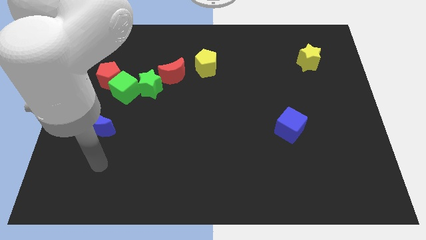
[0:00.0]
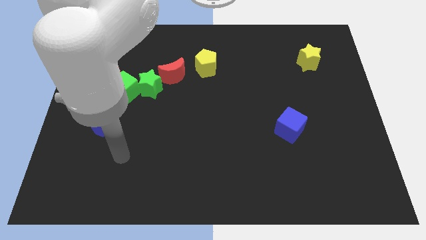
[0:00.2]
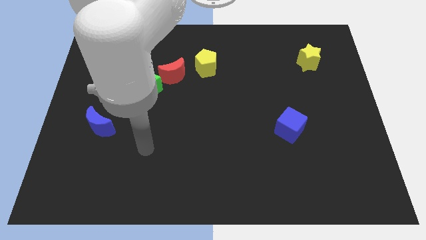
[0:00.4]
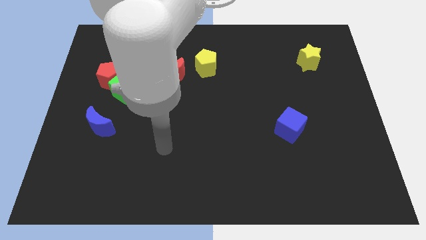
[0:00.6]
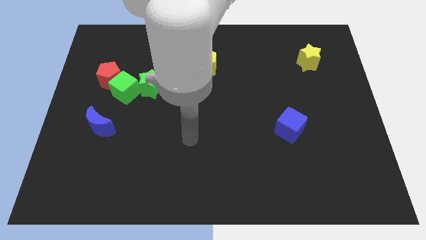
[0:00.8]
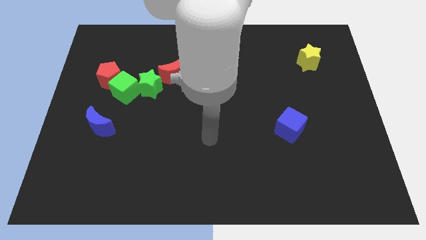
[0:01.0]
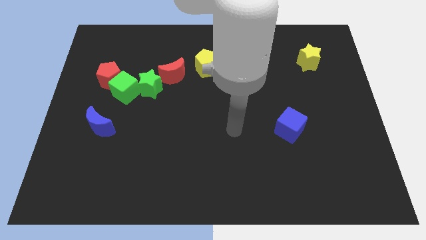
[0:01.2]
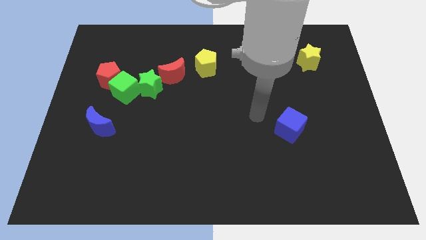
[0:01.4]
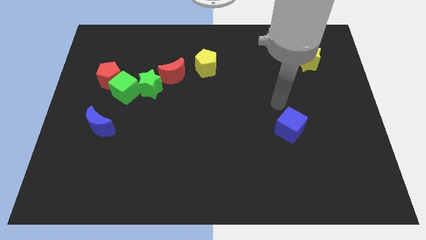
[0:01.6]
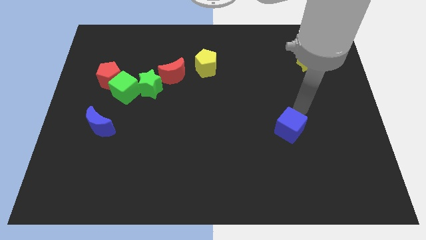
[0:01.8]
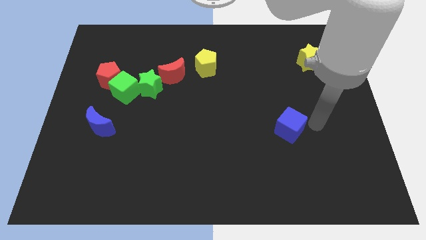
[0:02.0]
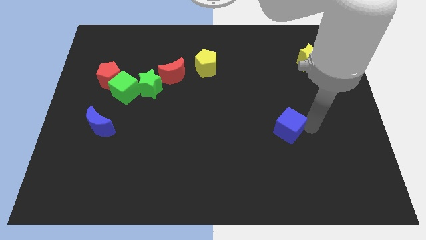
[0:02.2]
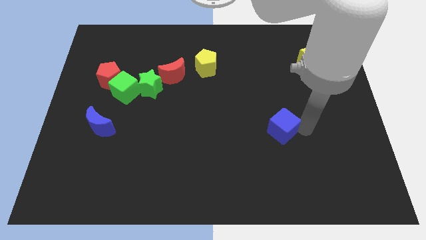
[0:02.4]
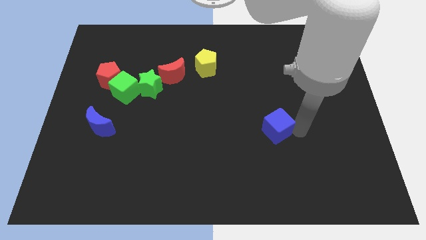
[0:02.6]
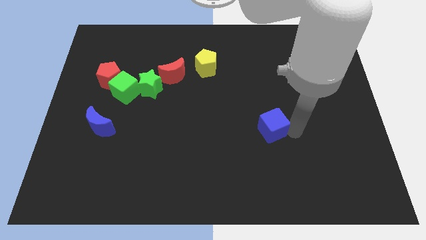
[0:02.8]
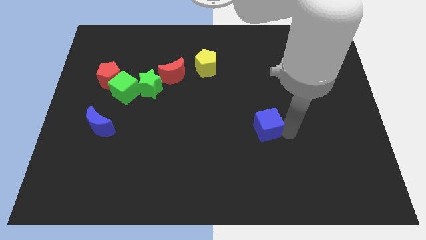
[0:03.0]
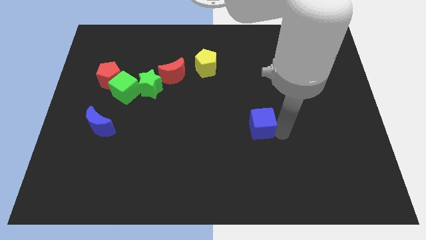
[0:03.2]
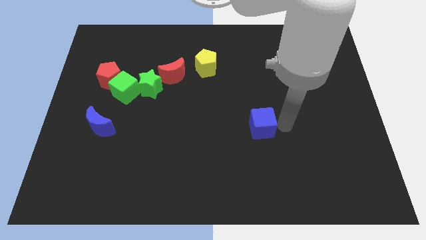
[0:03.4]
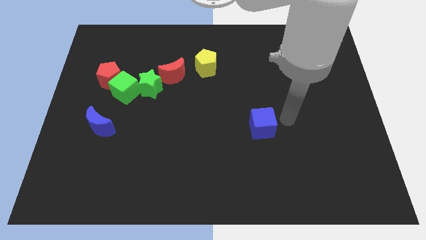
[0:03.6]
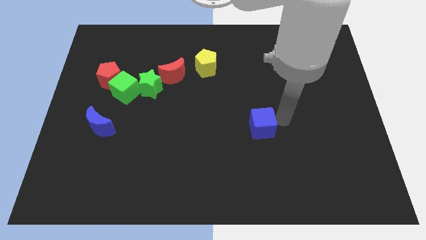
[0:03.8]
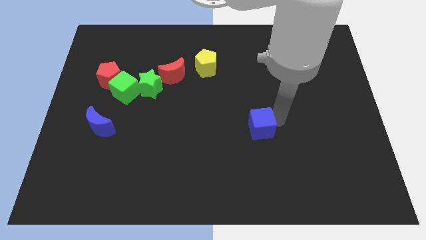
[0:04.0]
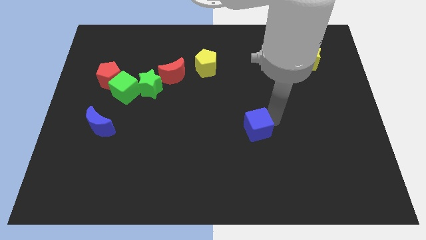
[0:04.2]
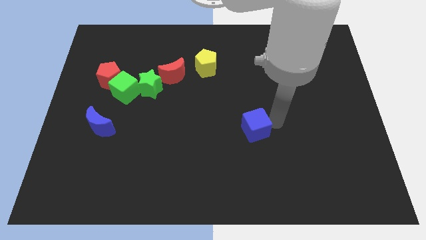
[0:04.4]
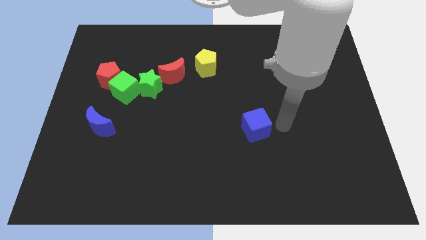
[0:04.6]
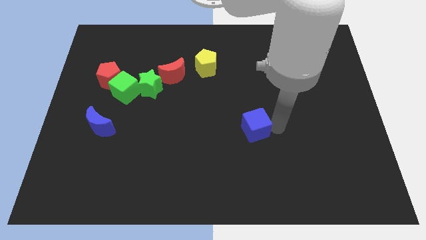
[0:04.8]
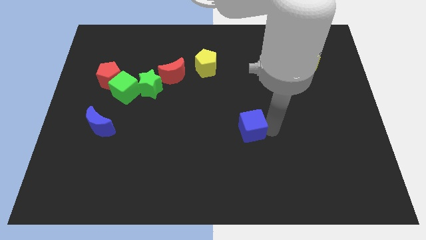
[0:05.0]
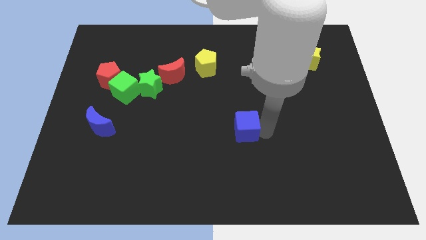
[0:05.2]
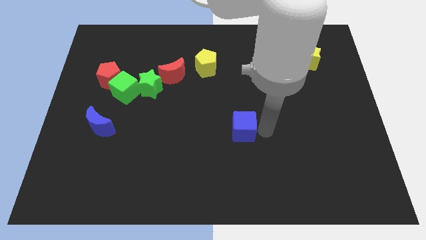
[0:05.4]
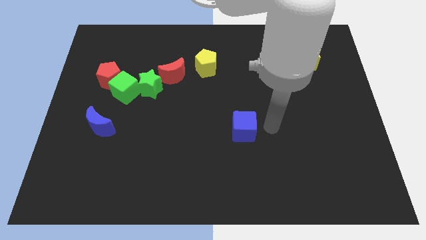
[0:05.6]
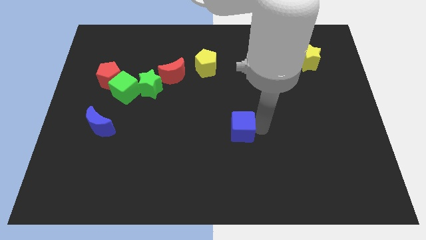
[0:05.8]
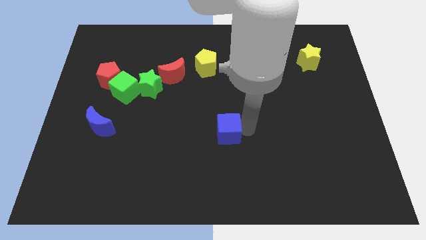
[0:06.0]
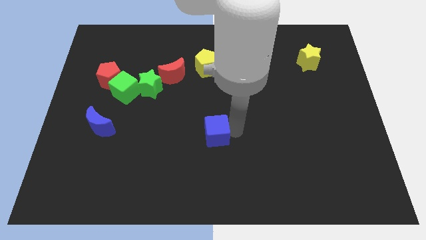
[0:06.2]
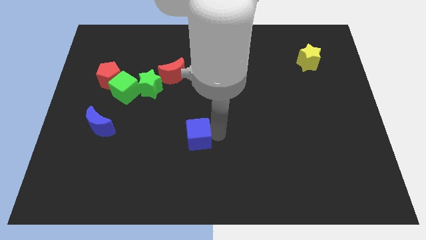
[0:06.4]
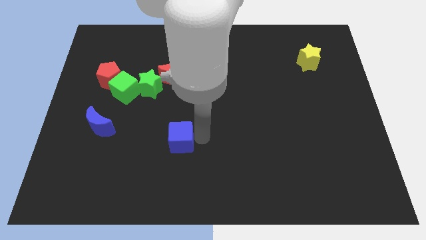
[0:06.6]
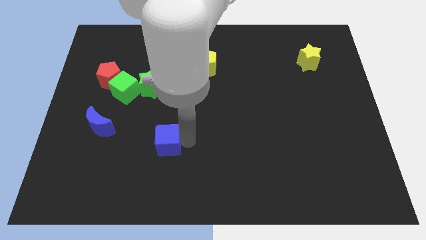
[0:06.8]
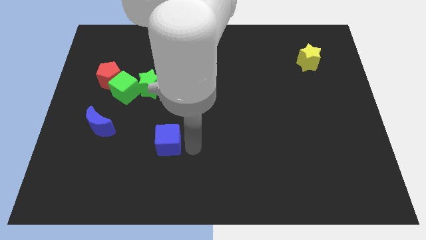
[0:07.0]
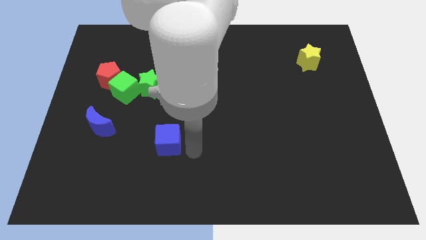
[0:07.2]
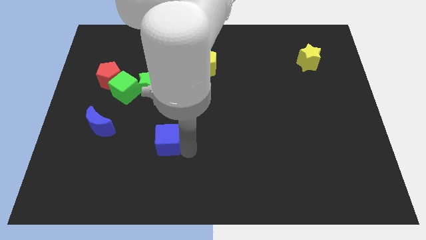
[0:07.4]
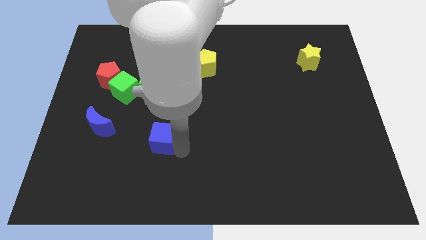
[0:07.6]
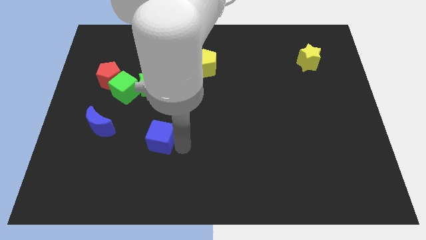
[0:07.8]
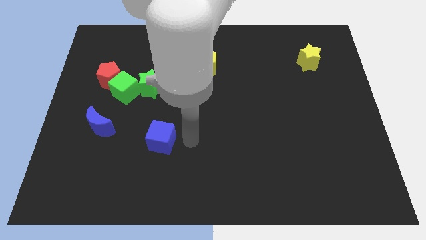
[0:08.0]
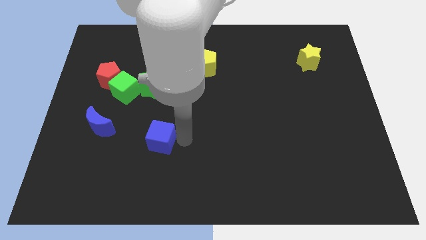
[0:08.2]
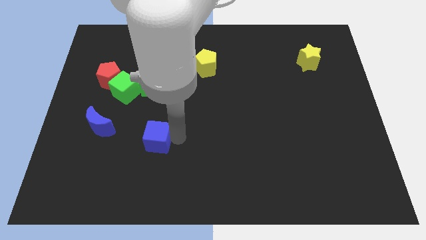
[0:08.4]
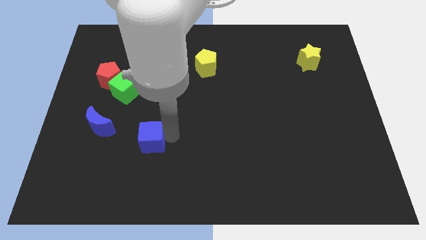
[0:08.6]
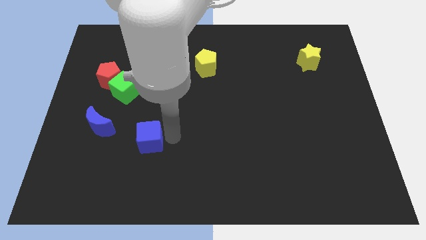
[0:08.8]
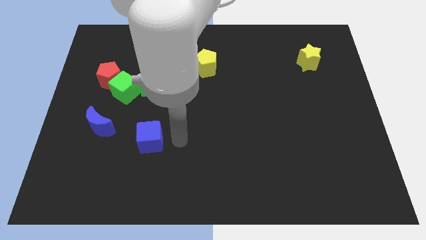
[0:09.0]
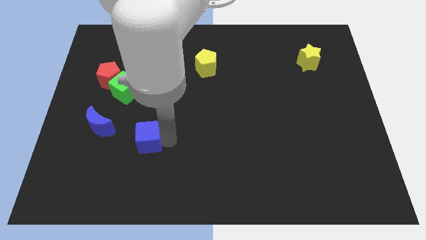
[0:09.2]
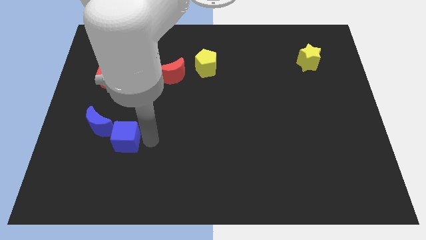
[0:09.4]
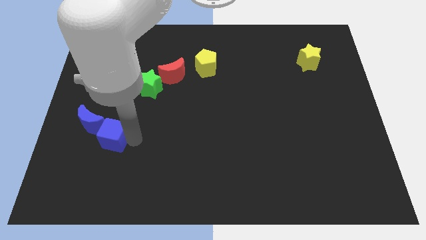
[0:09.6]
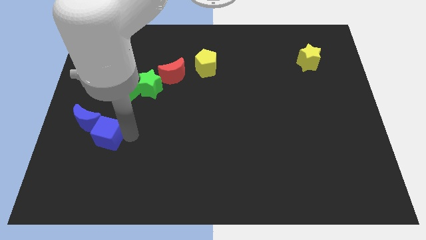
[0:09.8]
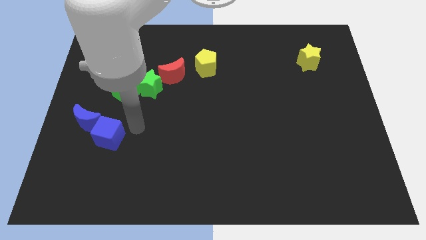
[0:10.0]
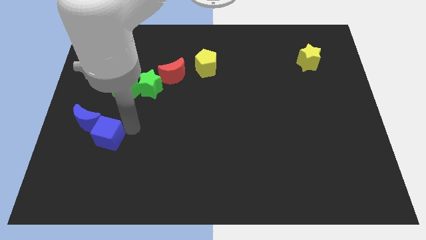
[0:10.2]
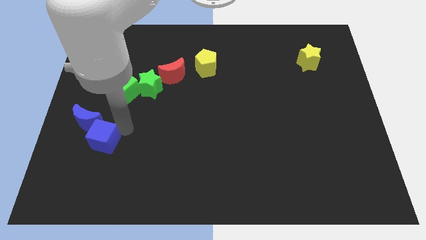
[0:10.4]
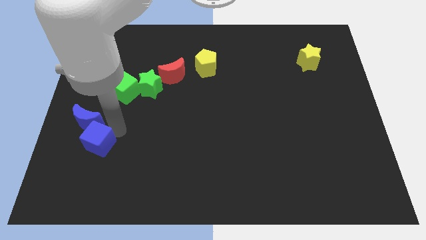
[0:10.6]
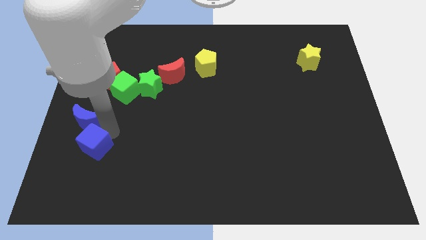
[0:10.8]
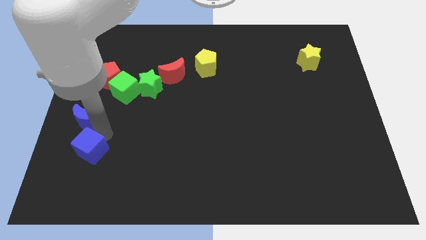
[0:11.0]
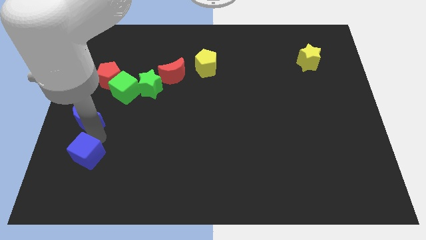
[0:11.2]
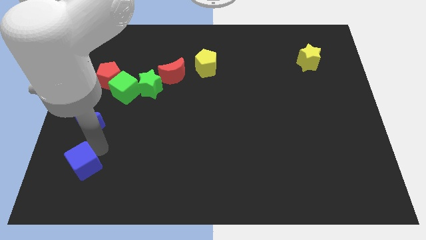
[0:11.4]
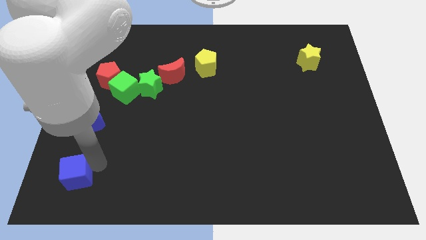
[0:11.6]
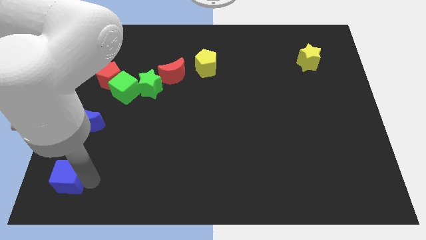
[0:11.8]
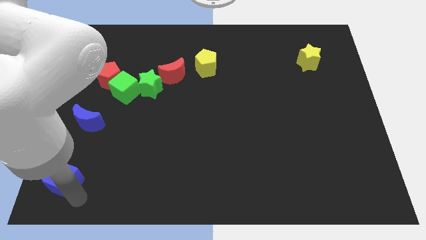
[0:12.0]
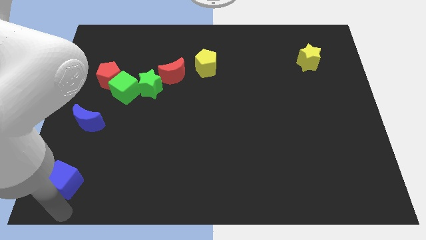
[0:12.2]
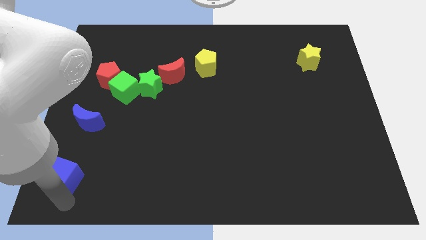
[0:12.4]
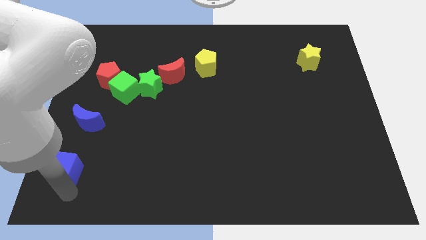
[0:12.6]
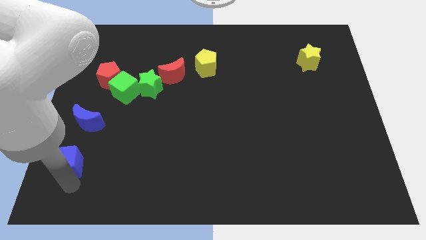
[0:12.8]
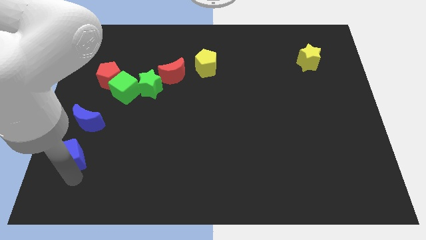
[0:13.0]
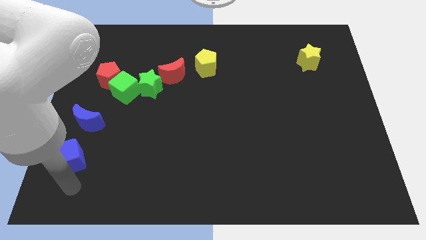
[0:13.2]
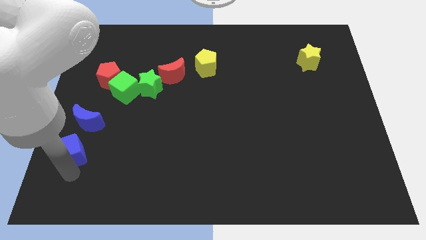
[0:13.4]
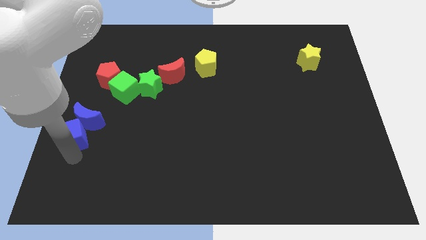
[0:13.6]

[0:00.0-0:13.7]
move the blue cube to the center left

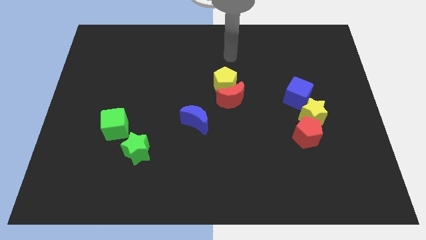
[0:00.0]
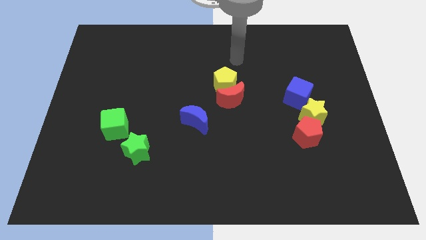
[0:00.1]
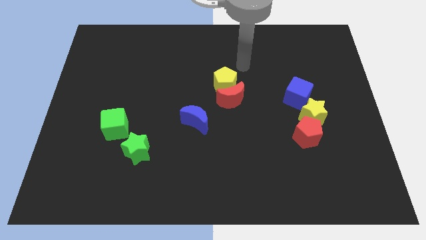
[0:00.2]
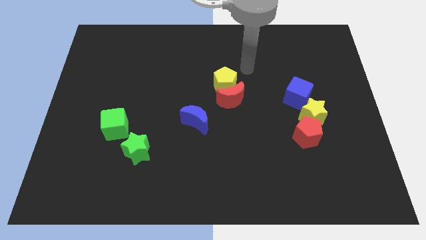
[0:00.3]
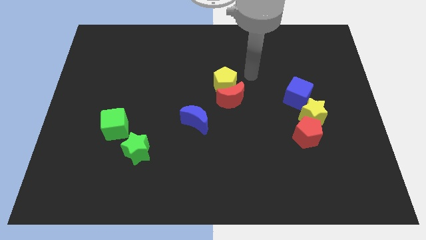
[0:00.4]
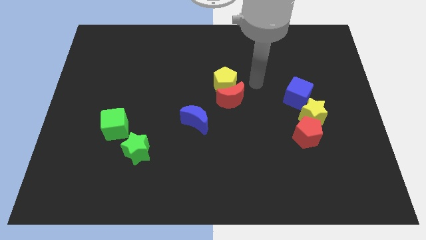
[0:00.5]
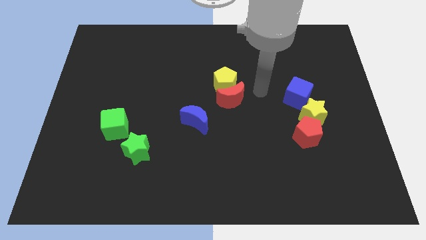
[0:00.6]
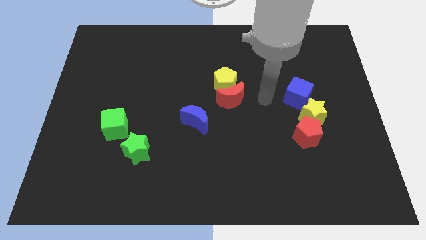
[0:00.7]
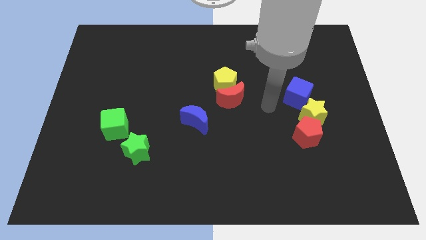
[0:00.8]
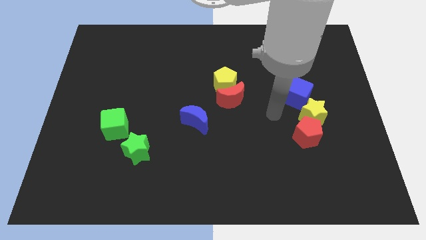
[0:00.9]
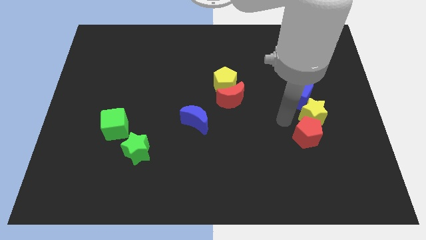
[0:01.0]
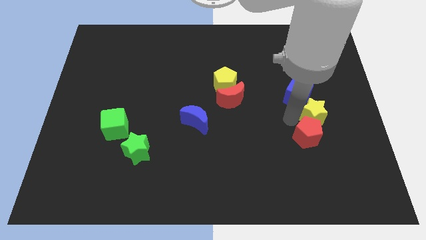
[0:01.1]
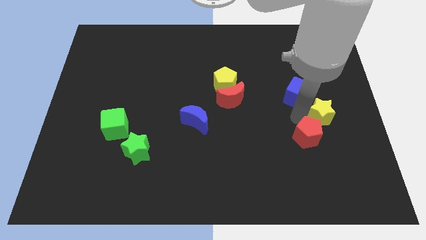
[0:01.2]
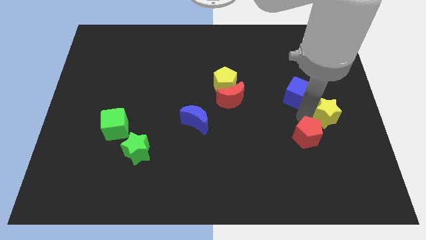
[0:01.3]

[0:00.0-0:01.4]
slide the yellow star to the center right
